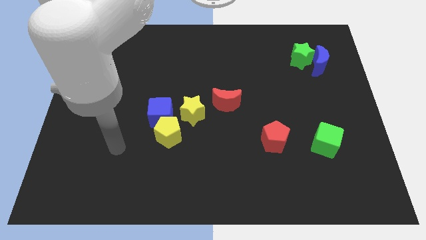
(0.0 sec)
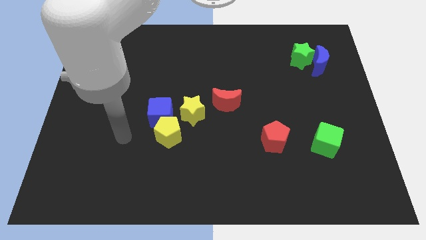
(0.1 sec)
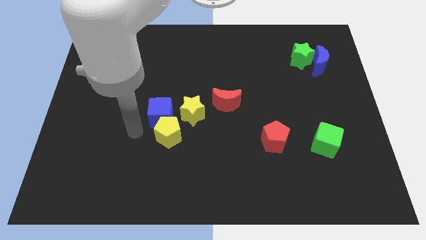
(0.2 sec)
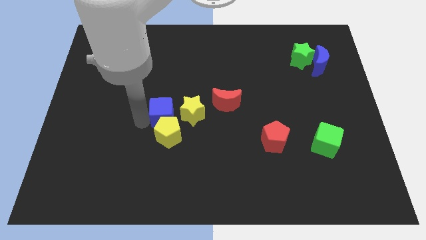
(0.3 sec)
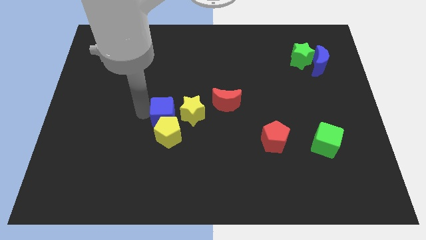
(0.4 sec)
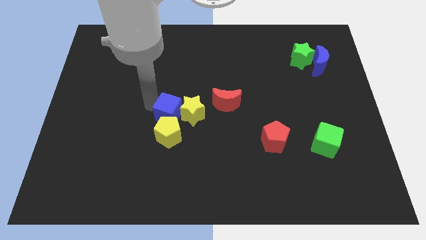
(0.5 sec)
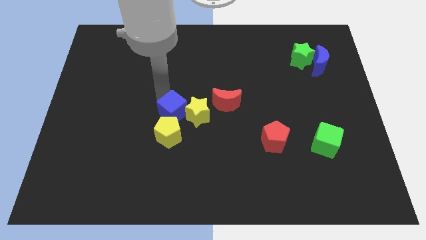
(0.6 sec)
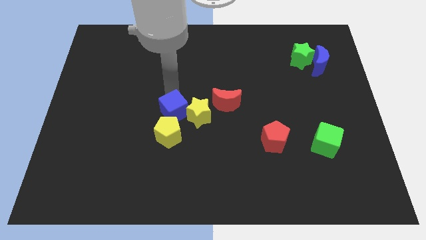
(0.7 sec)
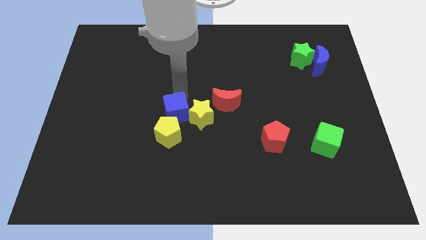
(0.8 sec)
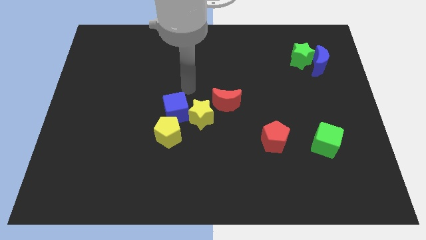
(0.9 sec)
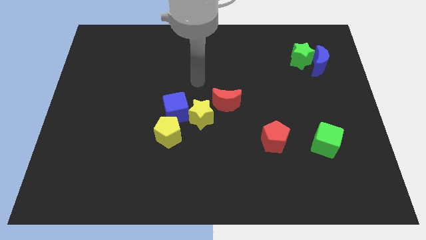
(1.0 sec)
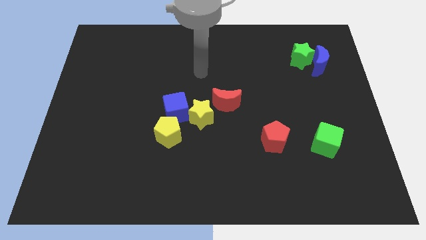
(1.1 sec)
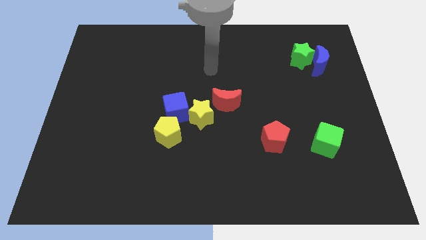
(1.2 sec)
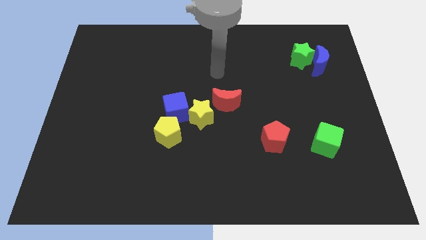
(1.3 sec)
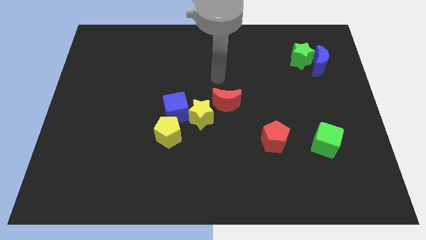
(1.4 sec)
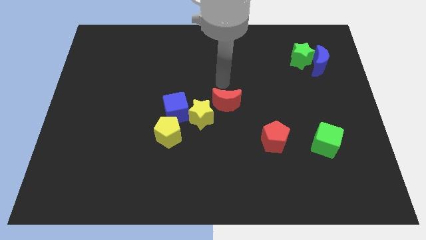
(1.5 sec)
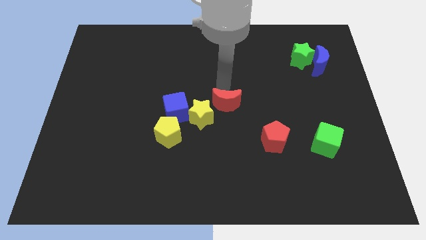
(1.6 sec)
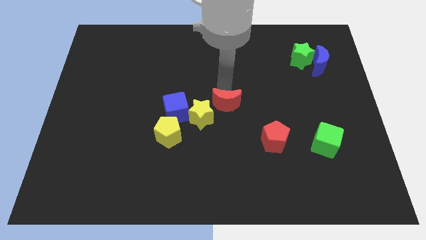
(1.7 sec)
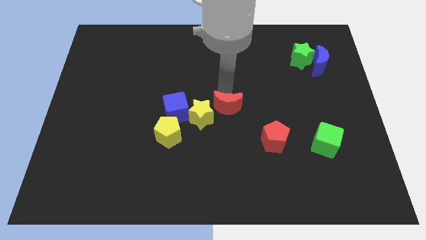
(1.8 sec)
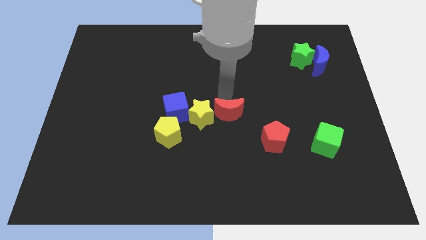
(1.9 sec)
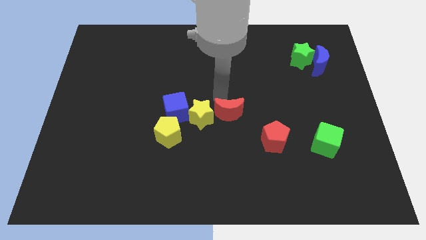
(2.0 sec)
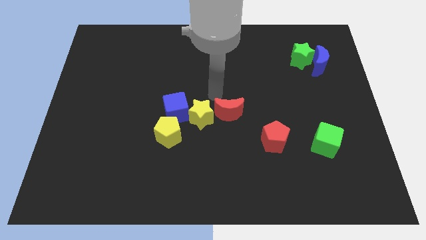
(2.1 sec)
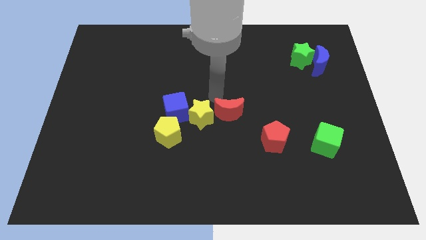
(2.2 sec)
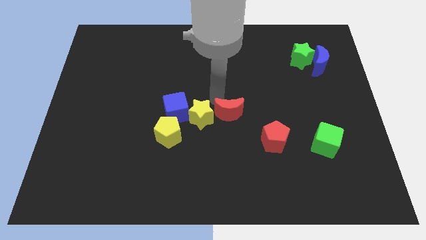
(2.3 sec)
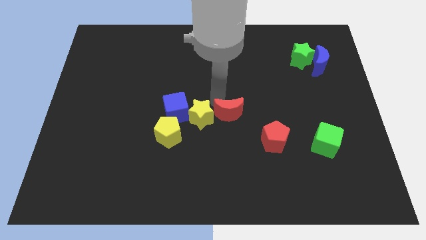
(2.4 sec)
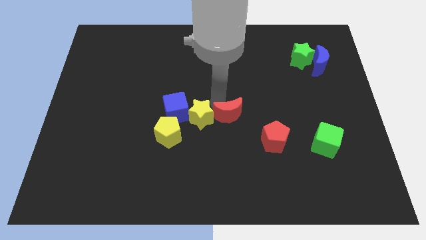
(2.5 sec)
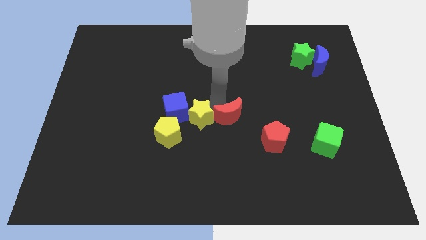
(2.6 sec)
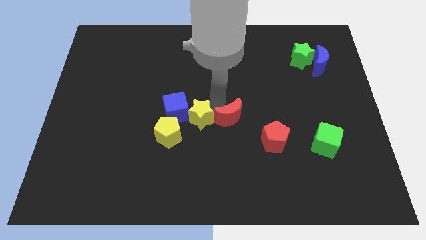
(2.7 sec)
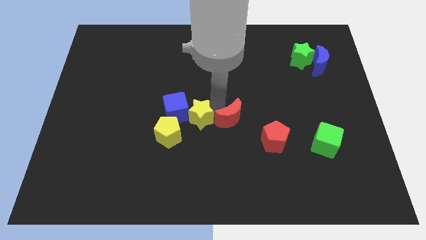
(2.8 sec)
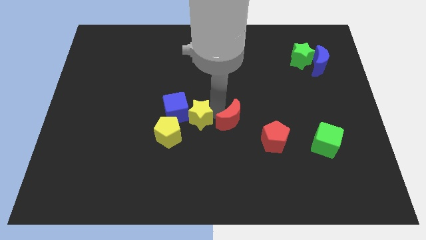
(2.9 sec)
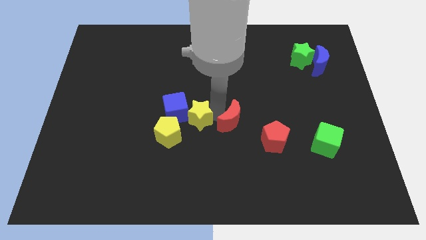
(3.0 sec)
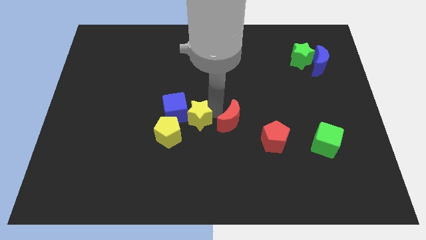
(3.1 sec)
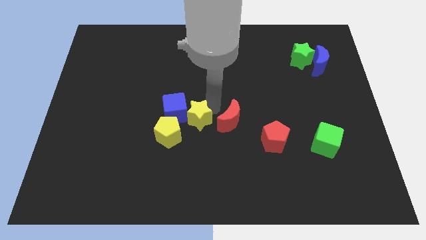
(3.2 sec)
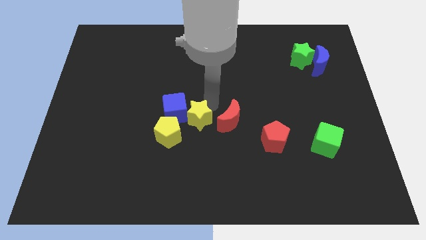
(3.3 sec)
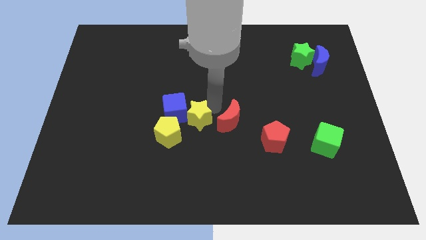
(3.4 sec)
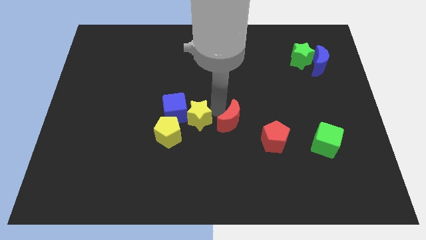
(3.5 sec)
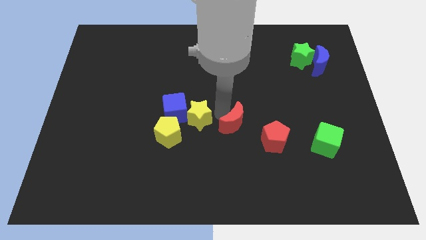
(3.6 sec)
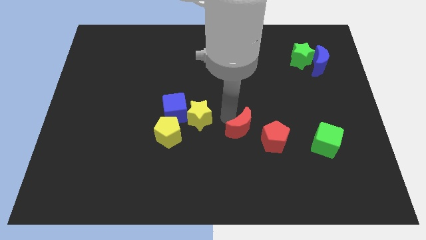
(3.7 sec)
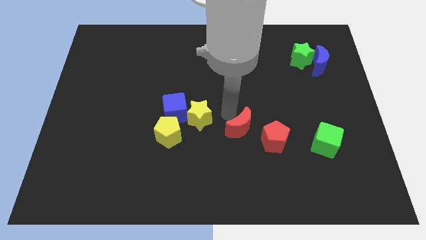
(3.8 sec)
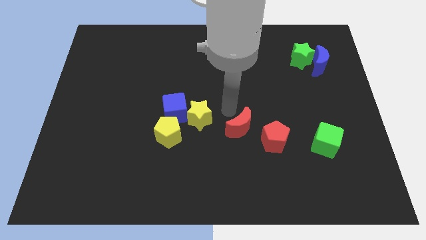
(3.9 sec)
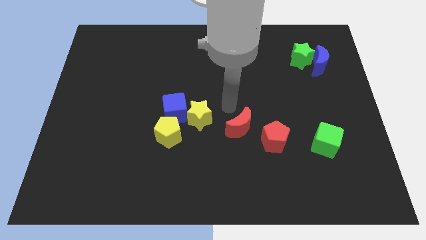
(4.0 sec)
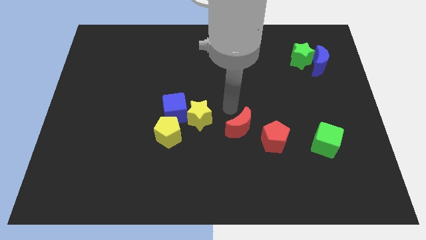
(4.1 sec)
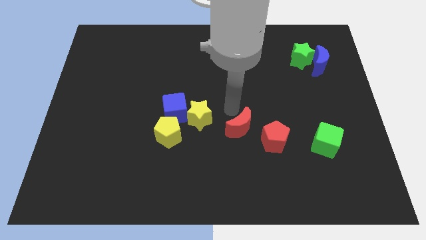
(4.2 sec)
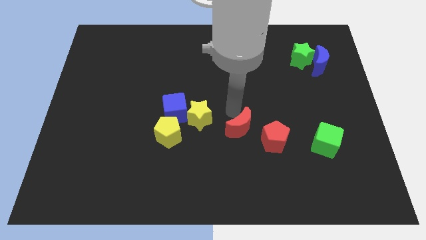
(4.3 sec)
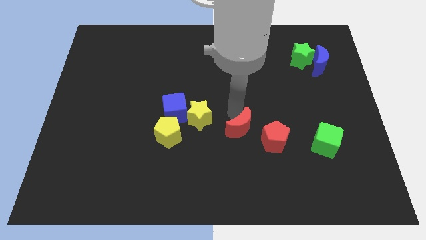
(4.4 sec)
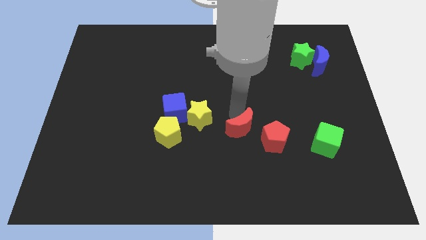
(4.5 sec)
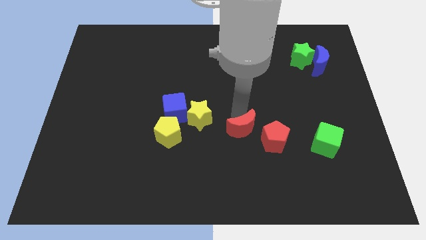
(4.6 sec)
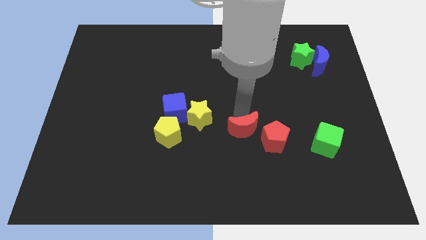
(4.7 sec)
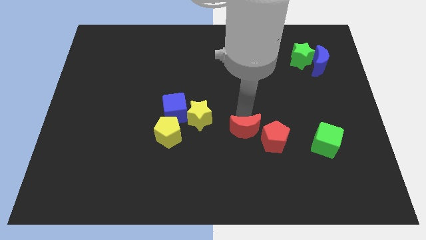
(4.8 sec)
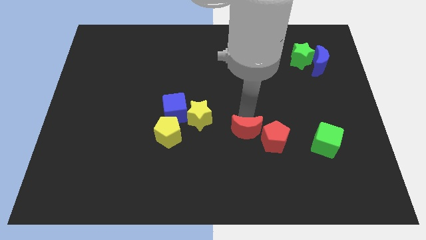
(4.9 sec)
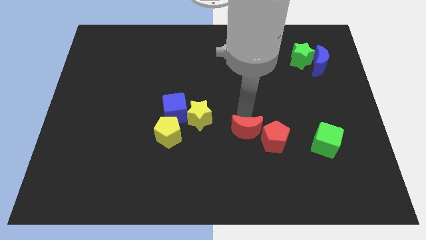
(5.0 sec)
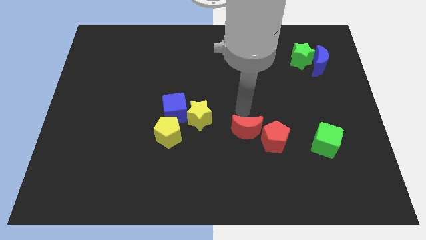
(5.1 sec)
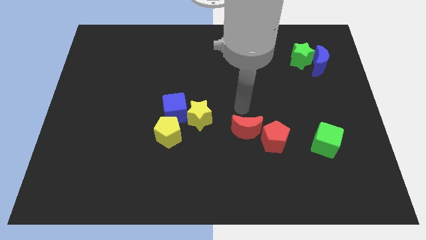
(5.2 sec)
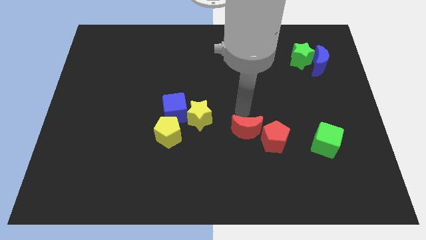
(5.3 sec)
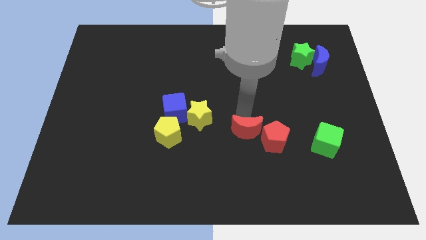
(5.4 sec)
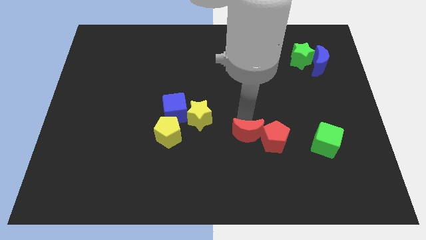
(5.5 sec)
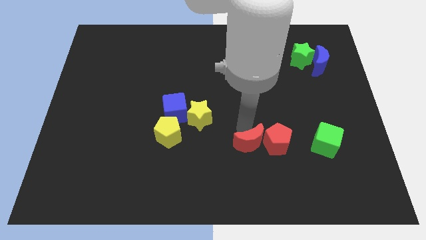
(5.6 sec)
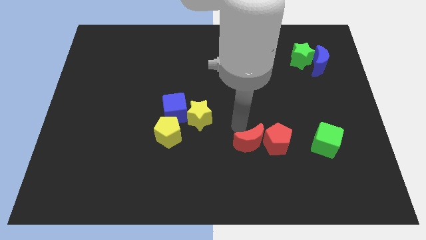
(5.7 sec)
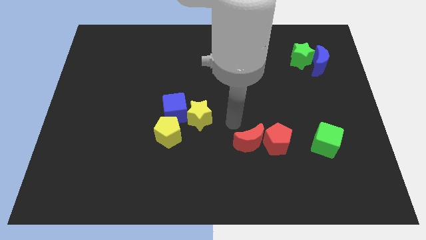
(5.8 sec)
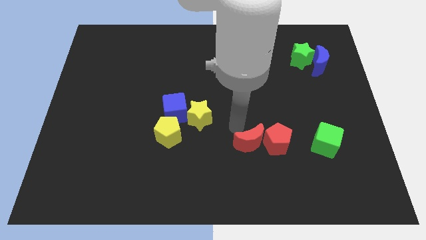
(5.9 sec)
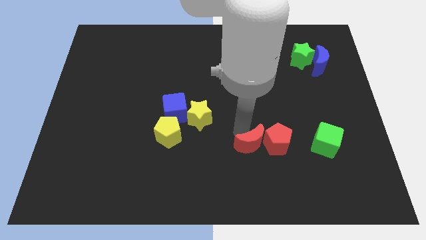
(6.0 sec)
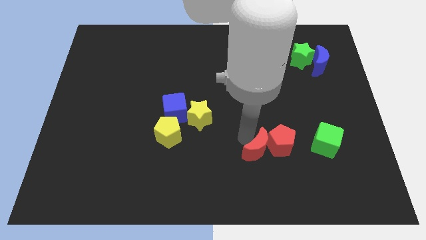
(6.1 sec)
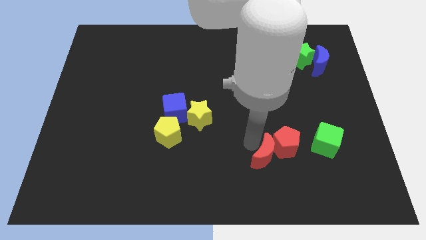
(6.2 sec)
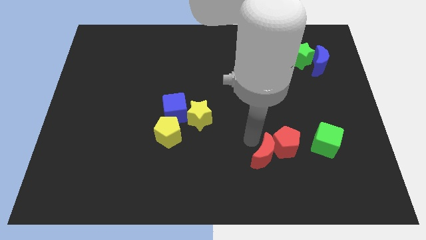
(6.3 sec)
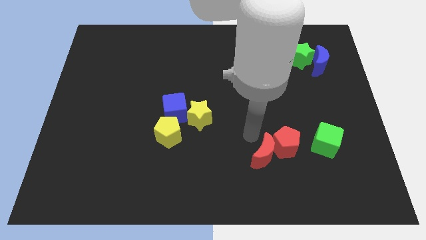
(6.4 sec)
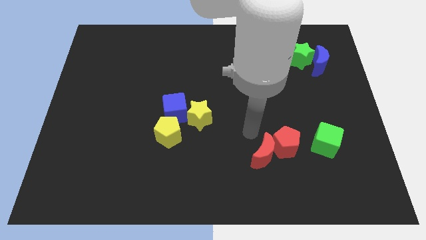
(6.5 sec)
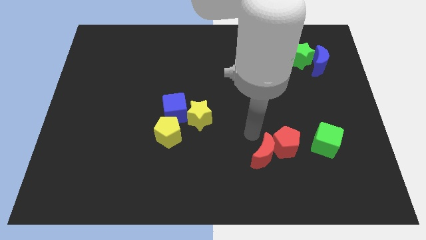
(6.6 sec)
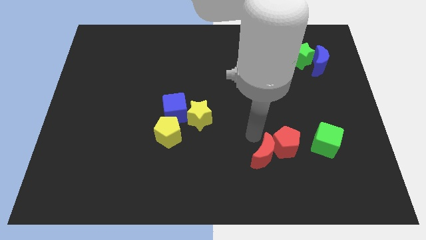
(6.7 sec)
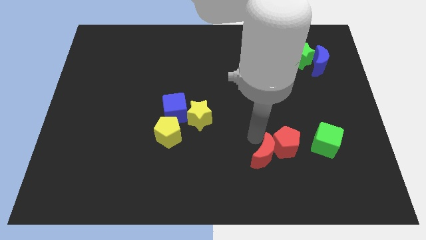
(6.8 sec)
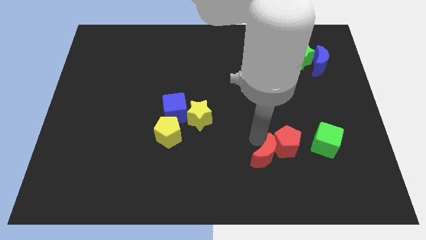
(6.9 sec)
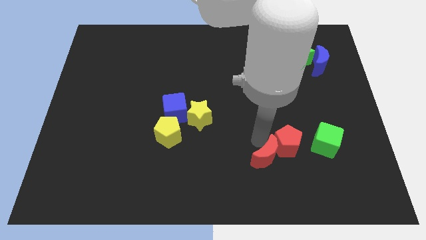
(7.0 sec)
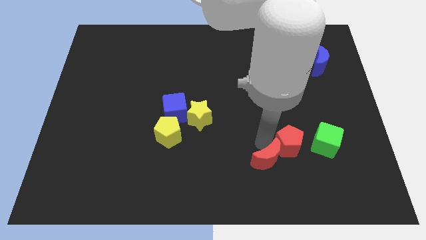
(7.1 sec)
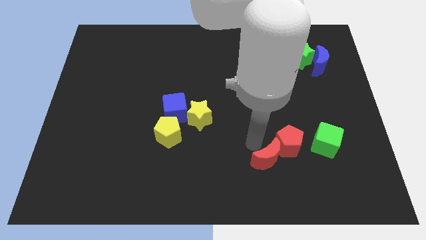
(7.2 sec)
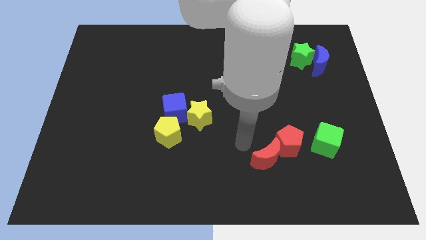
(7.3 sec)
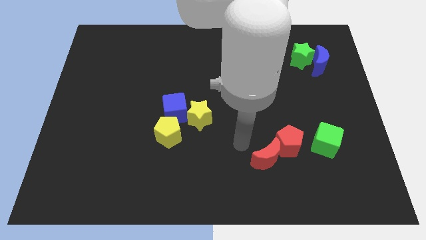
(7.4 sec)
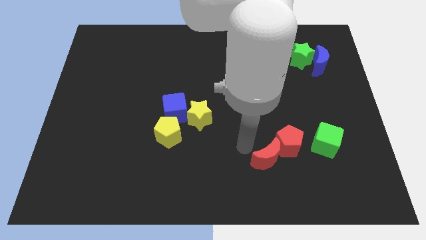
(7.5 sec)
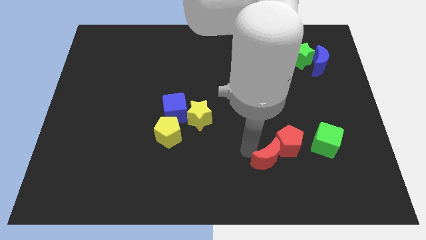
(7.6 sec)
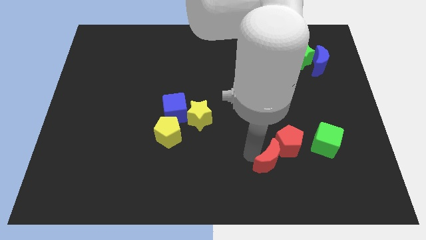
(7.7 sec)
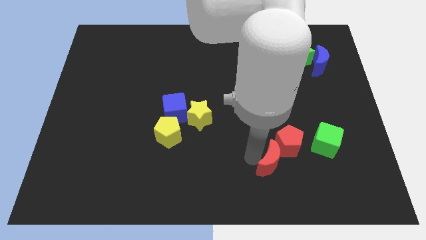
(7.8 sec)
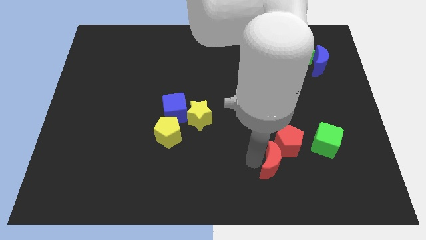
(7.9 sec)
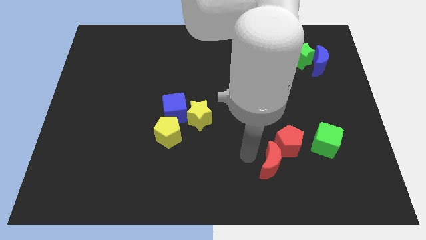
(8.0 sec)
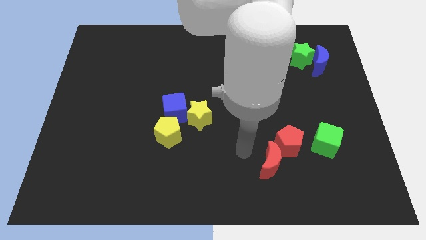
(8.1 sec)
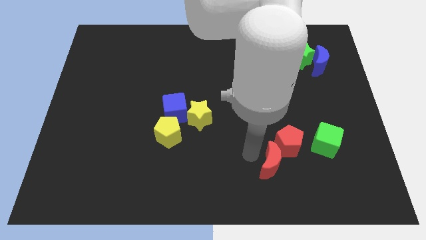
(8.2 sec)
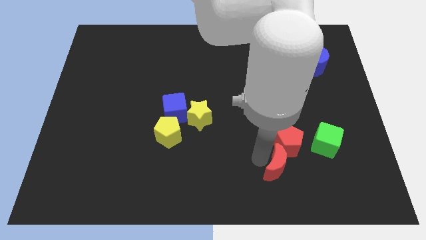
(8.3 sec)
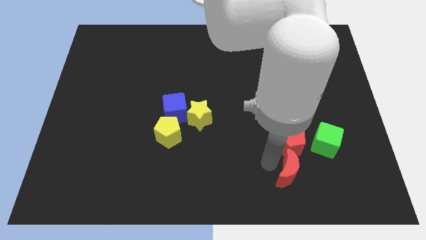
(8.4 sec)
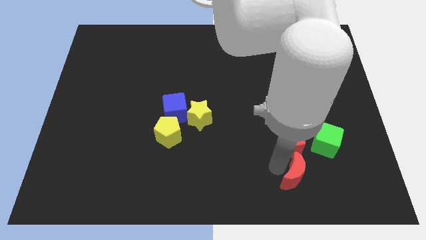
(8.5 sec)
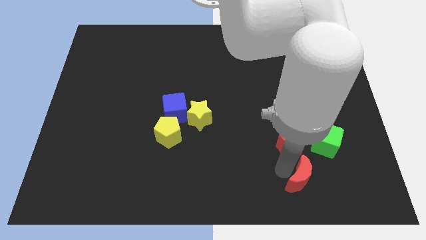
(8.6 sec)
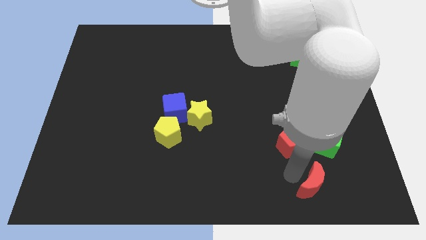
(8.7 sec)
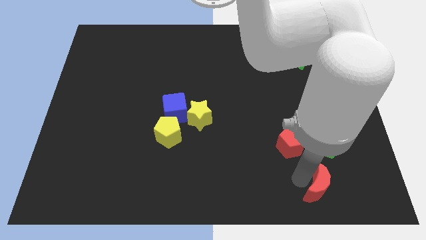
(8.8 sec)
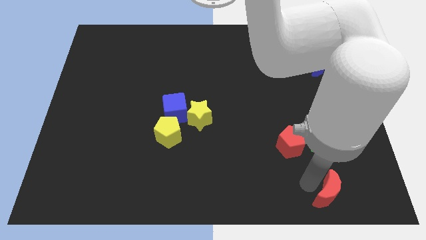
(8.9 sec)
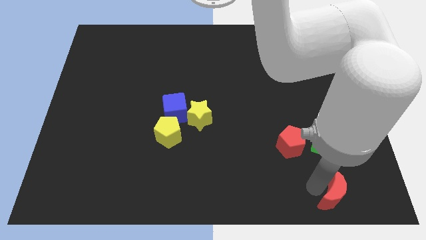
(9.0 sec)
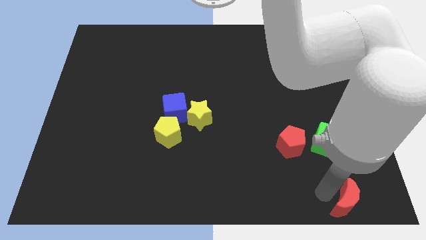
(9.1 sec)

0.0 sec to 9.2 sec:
move the red moon to the lower right corner
